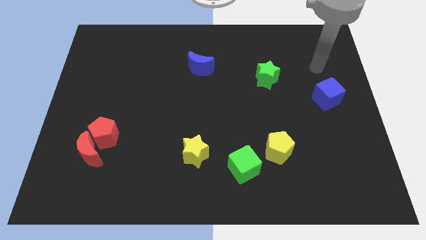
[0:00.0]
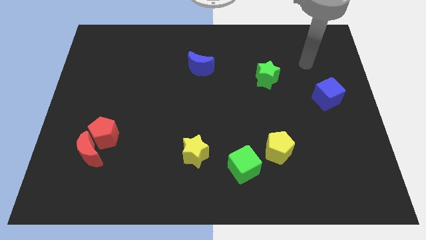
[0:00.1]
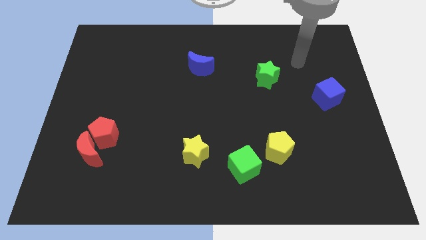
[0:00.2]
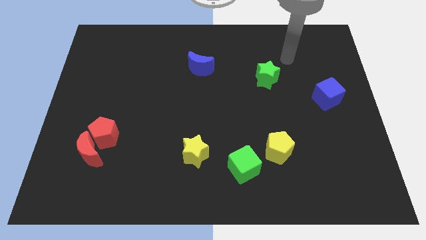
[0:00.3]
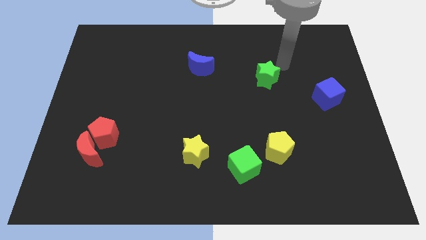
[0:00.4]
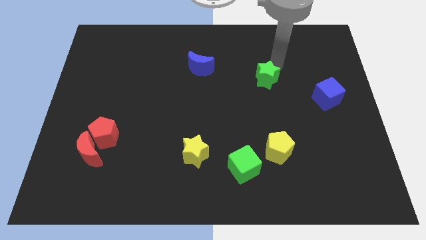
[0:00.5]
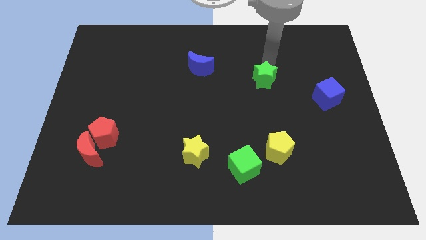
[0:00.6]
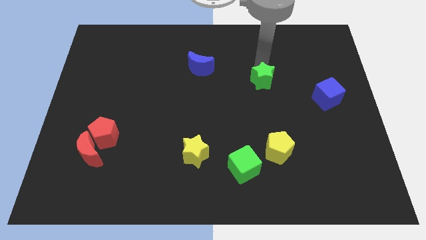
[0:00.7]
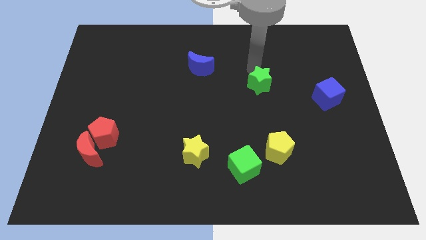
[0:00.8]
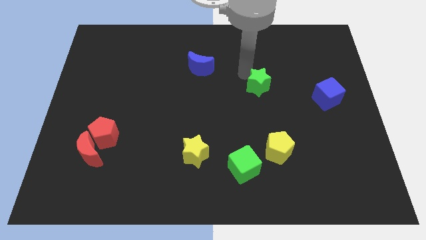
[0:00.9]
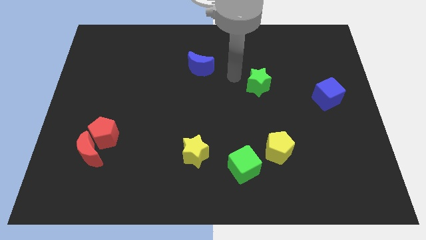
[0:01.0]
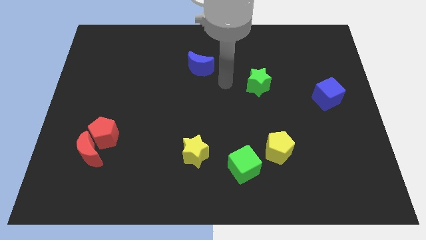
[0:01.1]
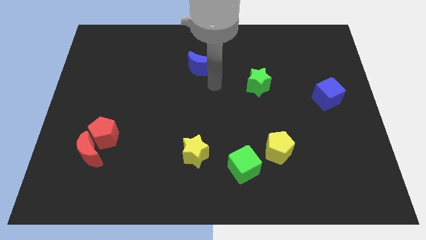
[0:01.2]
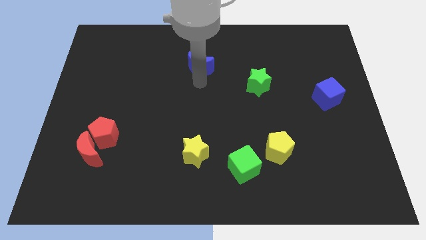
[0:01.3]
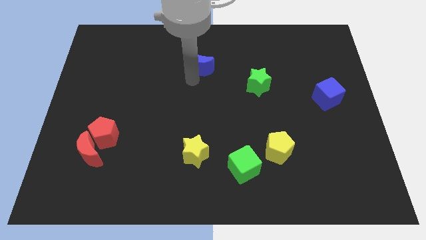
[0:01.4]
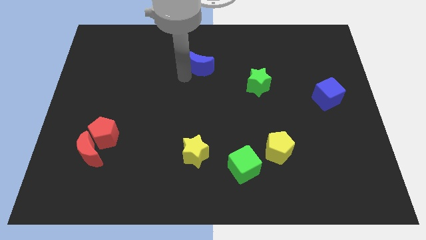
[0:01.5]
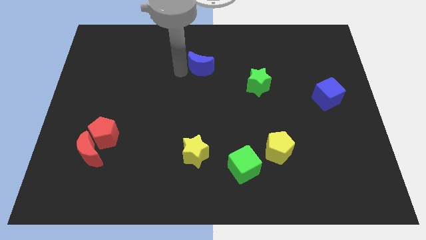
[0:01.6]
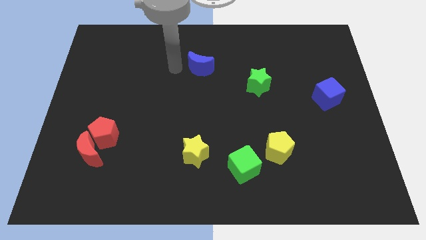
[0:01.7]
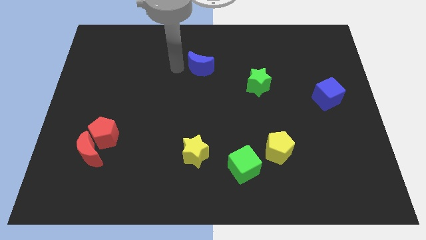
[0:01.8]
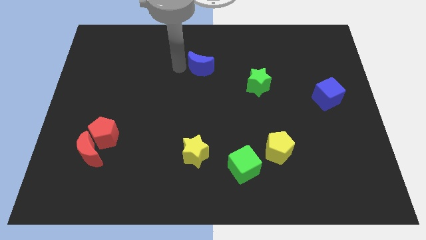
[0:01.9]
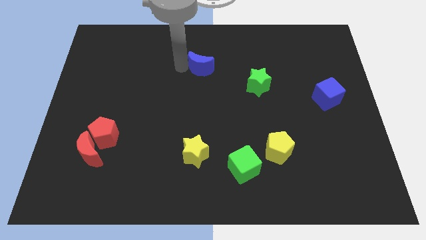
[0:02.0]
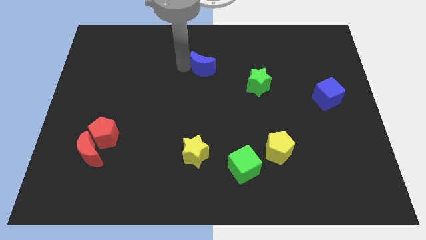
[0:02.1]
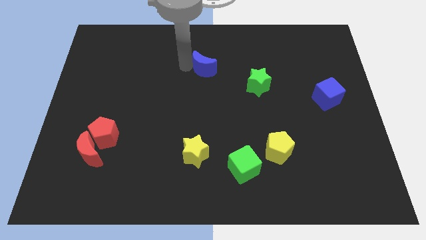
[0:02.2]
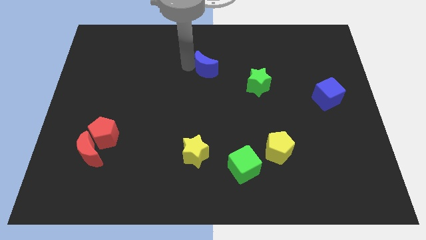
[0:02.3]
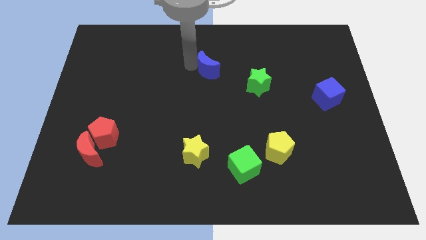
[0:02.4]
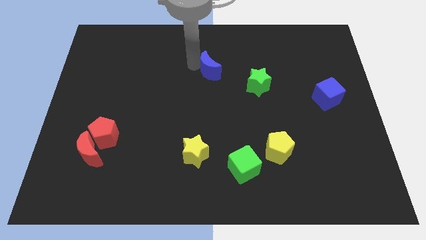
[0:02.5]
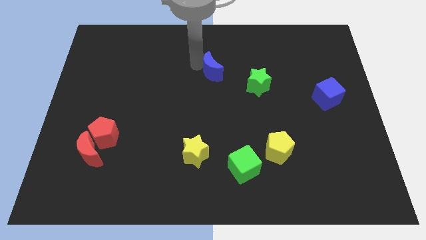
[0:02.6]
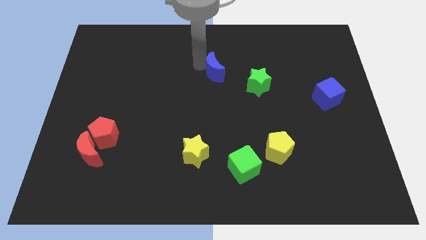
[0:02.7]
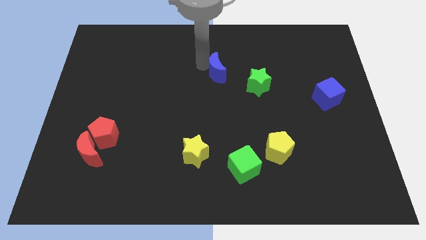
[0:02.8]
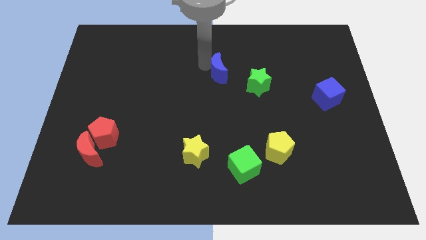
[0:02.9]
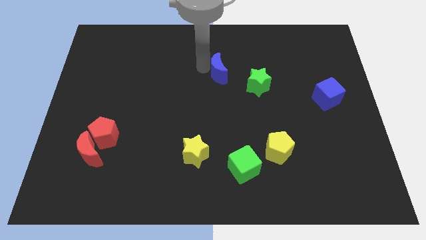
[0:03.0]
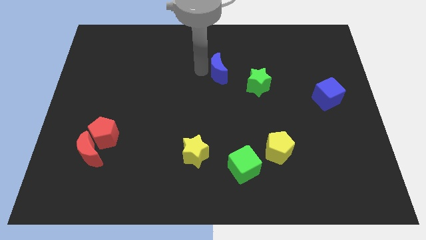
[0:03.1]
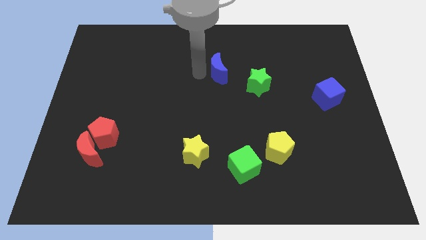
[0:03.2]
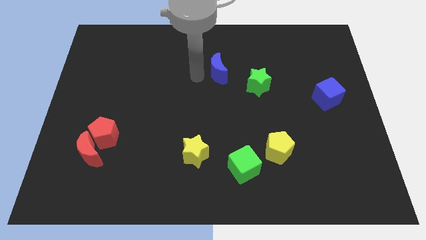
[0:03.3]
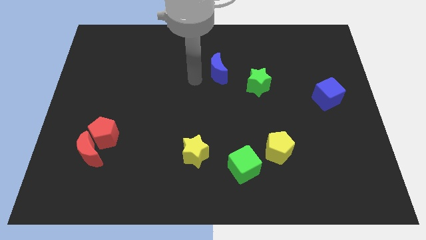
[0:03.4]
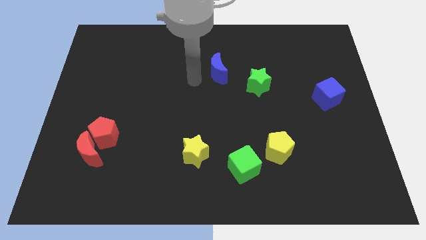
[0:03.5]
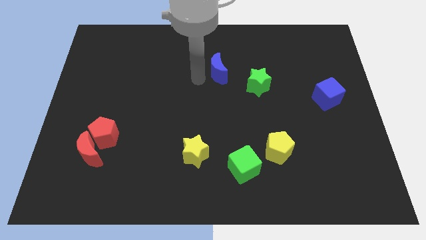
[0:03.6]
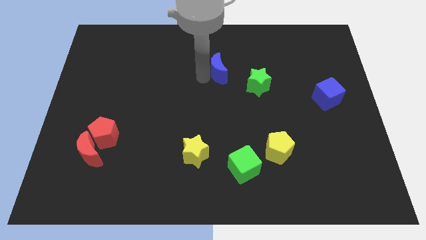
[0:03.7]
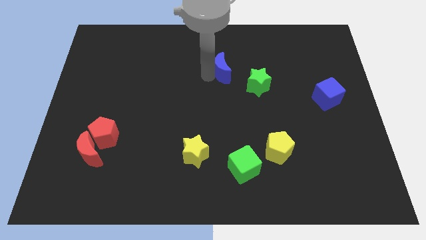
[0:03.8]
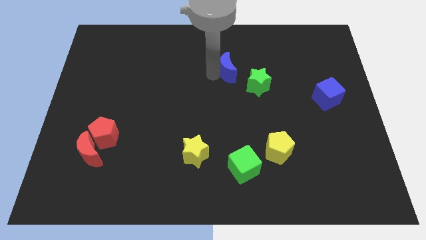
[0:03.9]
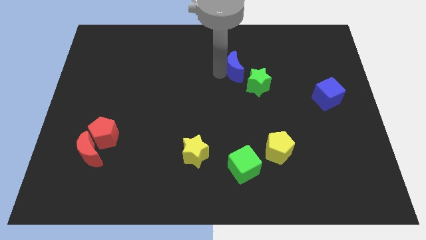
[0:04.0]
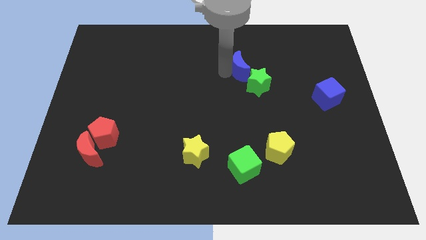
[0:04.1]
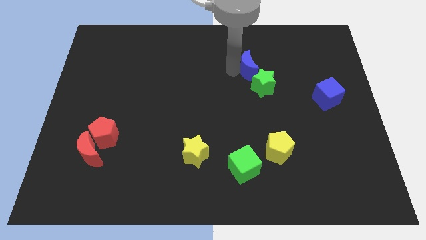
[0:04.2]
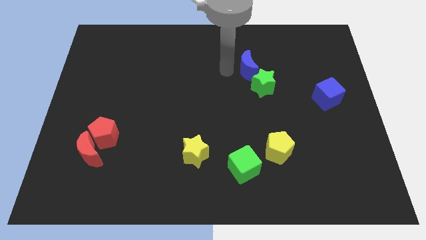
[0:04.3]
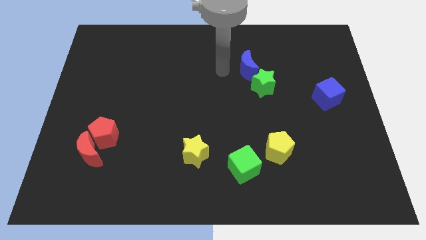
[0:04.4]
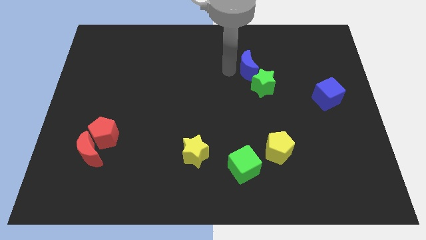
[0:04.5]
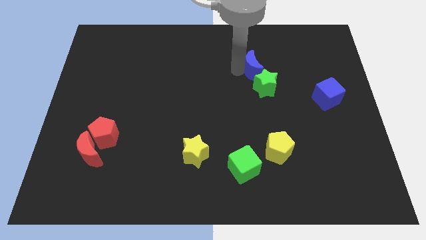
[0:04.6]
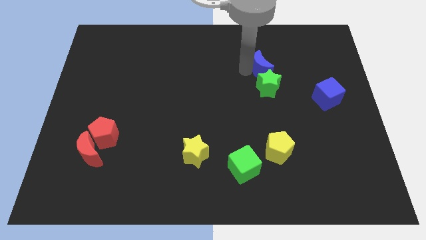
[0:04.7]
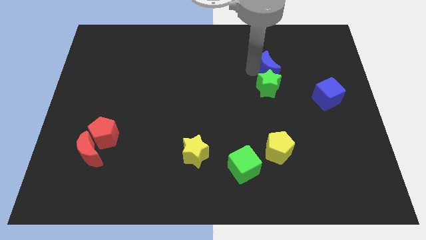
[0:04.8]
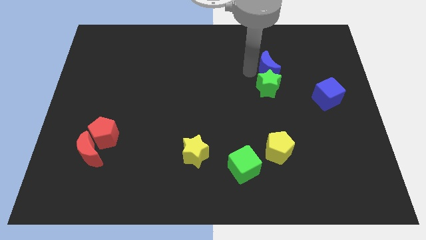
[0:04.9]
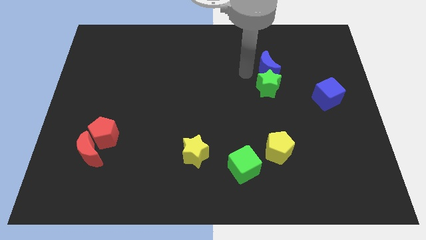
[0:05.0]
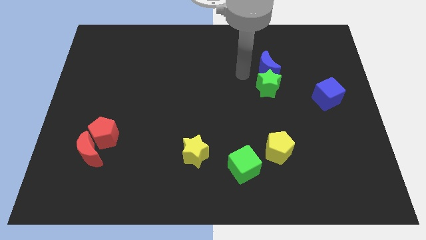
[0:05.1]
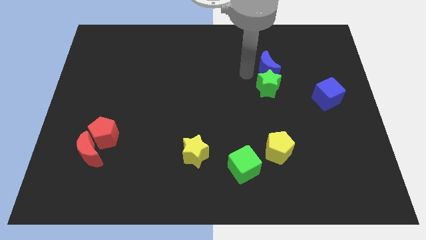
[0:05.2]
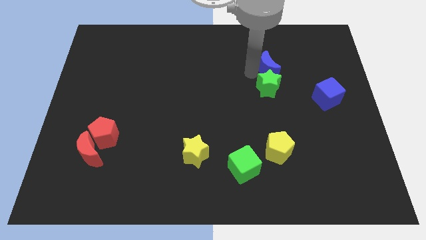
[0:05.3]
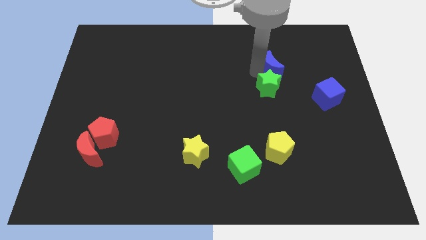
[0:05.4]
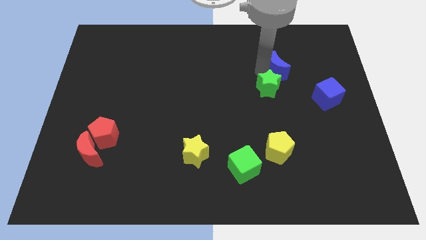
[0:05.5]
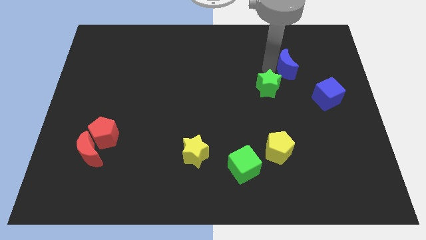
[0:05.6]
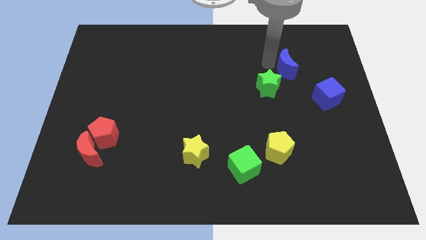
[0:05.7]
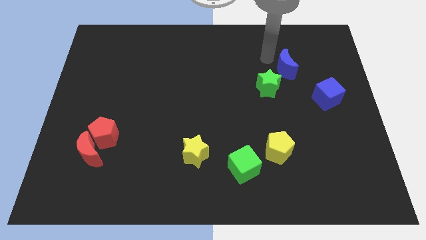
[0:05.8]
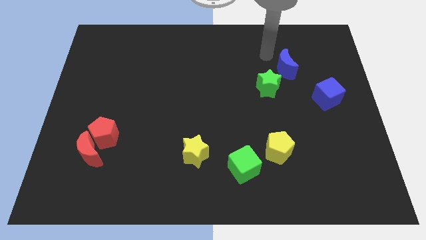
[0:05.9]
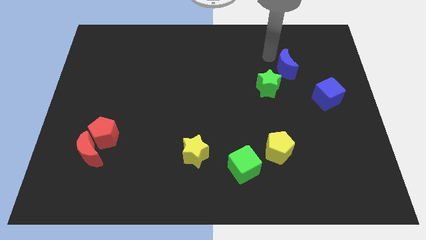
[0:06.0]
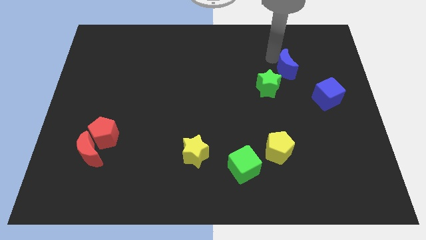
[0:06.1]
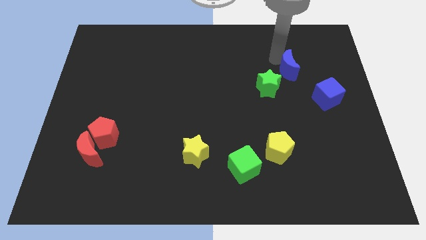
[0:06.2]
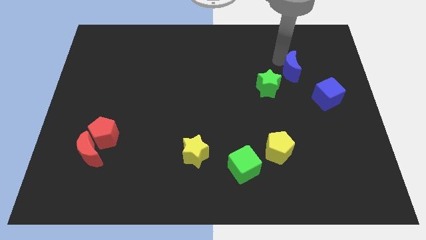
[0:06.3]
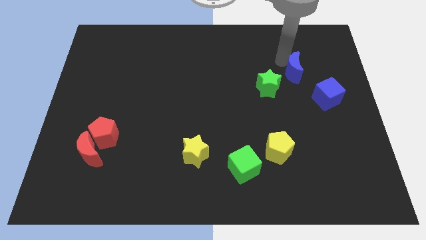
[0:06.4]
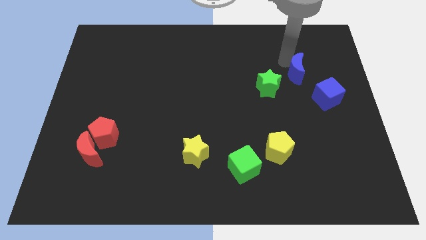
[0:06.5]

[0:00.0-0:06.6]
put the blue moon just right of the green star
